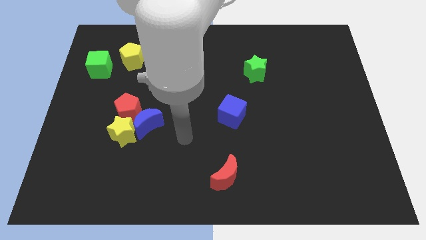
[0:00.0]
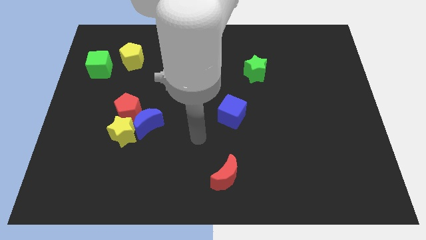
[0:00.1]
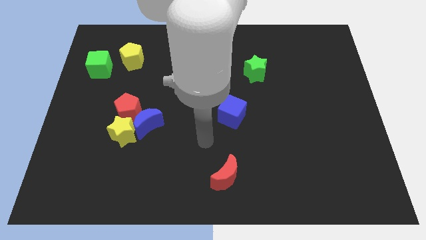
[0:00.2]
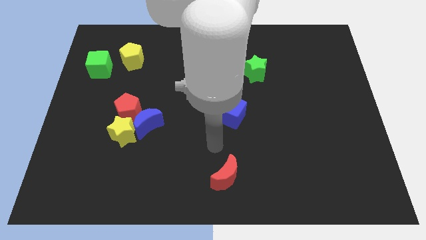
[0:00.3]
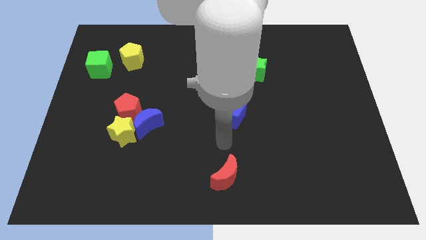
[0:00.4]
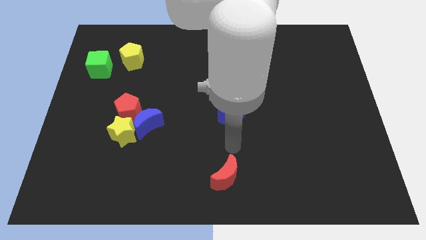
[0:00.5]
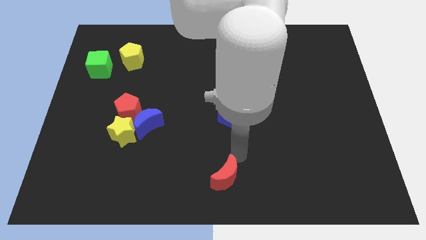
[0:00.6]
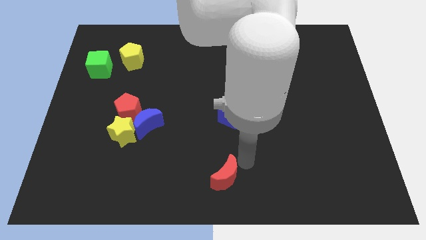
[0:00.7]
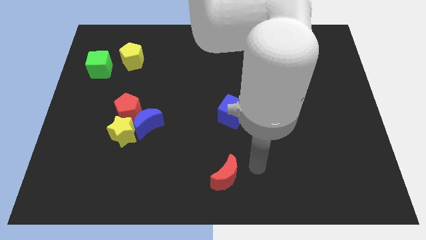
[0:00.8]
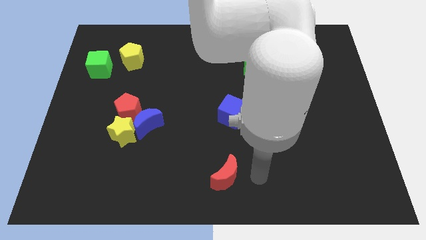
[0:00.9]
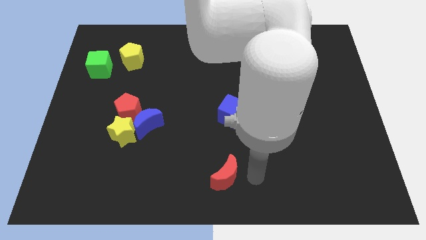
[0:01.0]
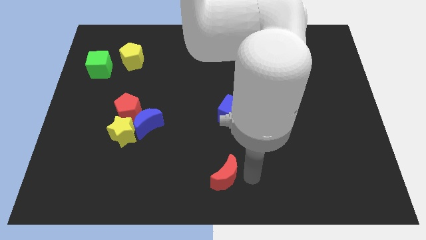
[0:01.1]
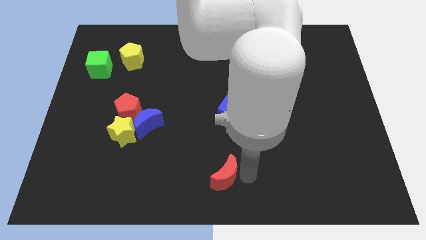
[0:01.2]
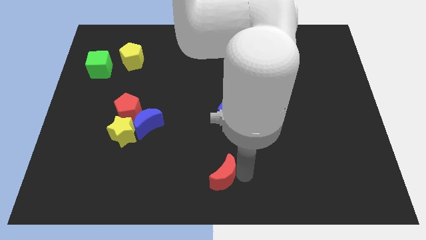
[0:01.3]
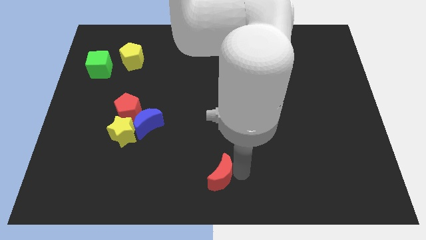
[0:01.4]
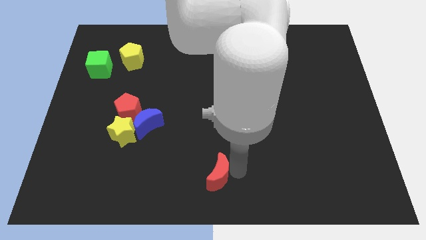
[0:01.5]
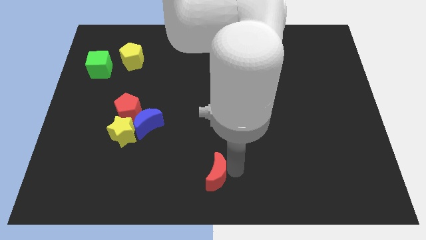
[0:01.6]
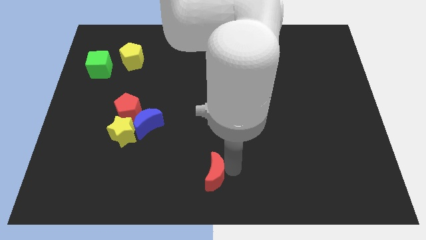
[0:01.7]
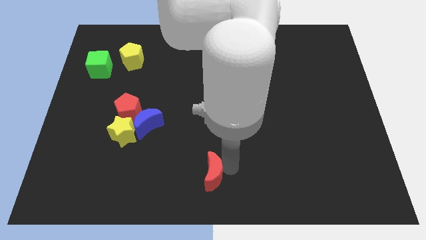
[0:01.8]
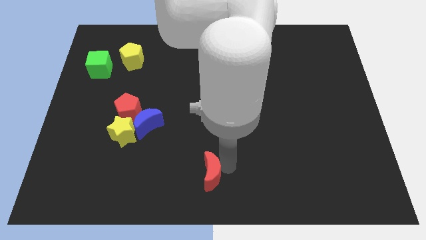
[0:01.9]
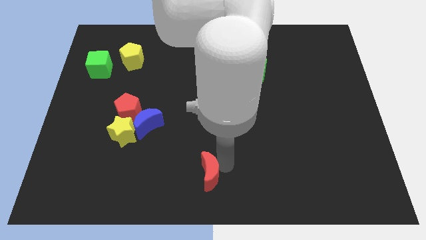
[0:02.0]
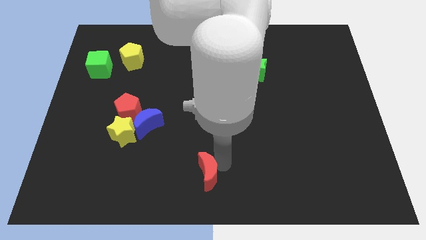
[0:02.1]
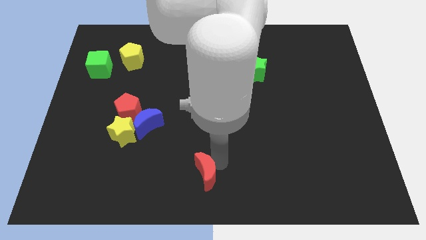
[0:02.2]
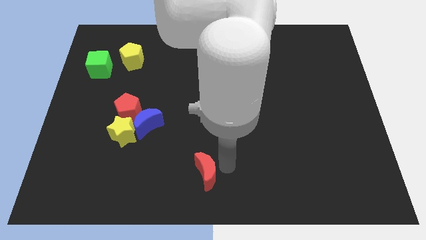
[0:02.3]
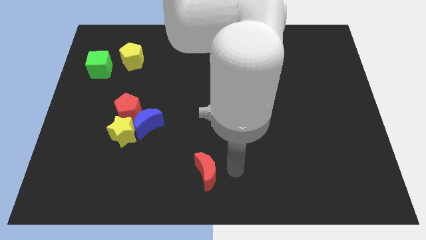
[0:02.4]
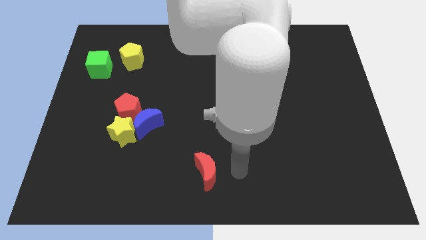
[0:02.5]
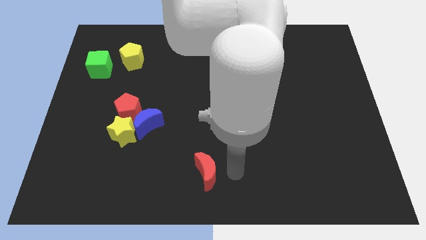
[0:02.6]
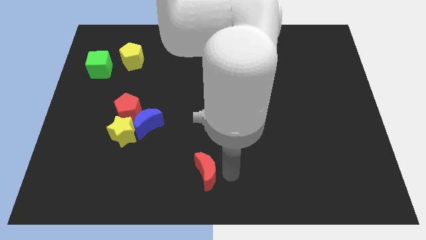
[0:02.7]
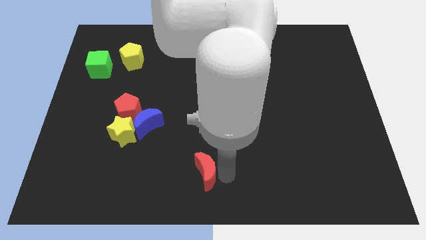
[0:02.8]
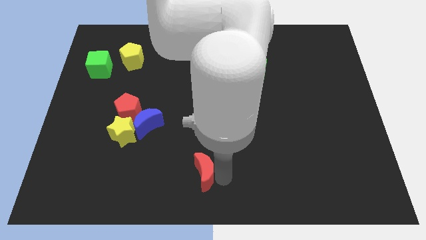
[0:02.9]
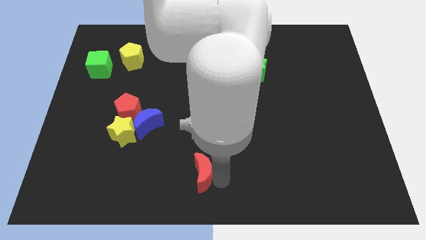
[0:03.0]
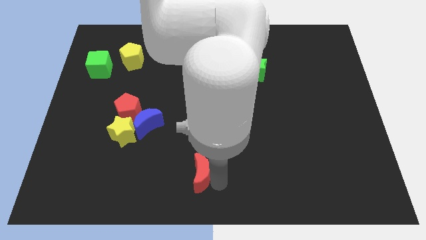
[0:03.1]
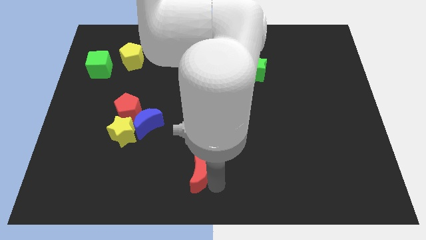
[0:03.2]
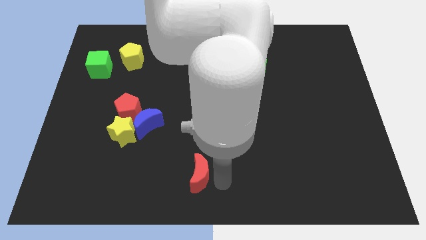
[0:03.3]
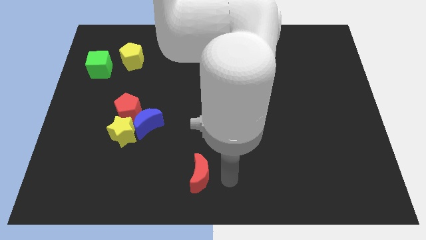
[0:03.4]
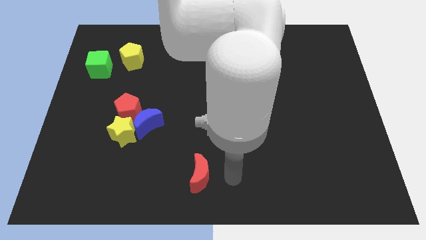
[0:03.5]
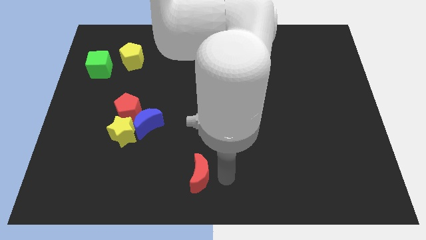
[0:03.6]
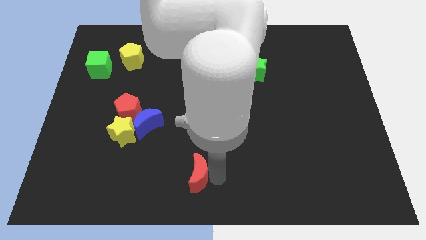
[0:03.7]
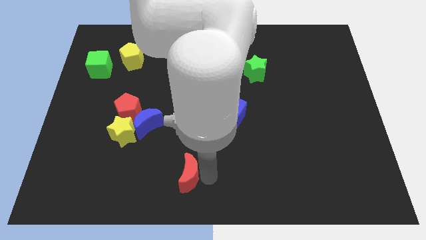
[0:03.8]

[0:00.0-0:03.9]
push the red moon a bit to the left

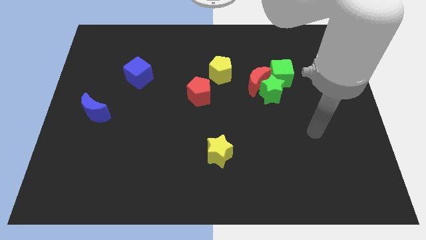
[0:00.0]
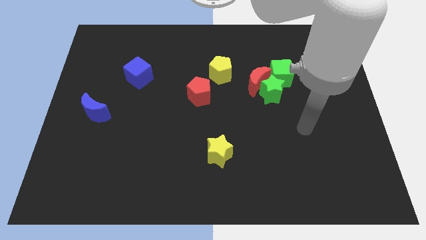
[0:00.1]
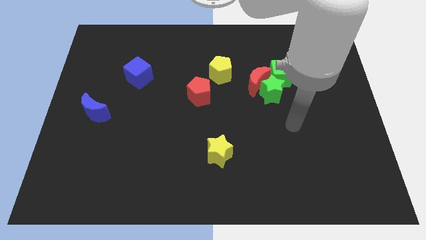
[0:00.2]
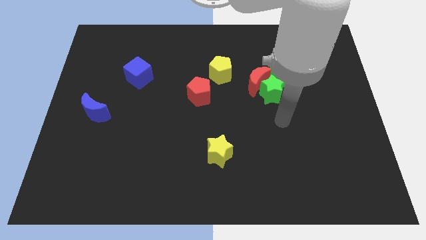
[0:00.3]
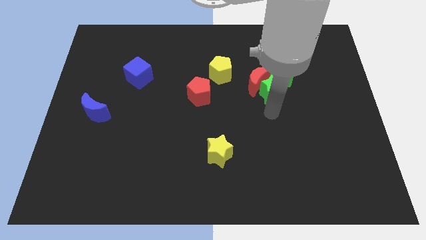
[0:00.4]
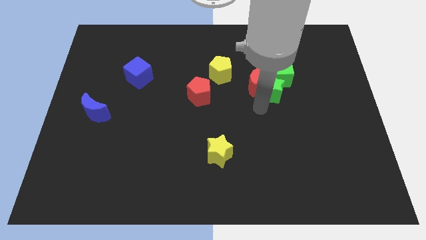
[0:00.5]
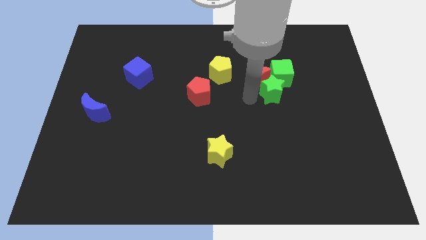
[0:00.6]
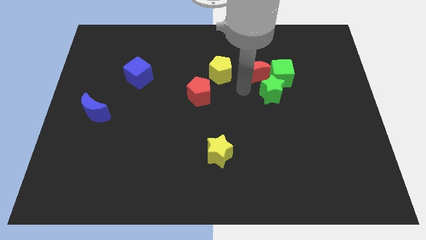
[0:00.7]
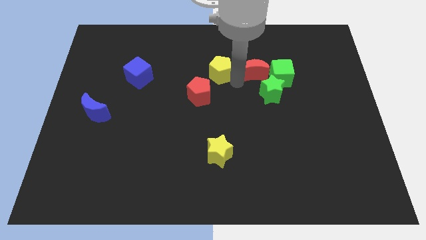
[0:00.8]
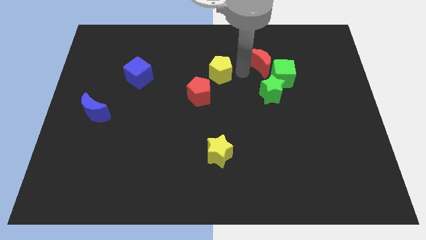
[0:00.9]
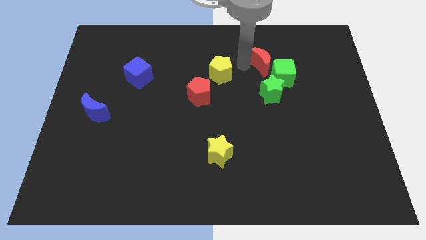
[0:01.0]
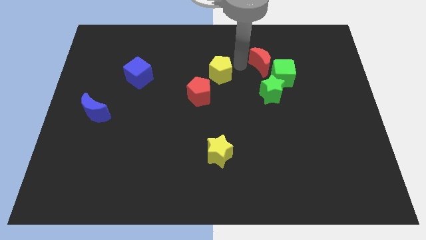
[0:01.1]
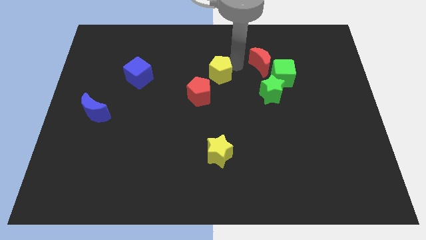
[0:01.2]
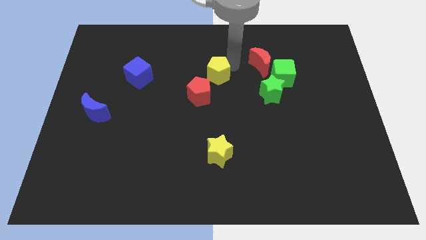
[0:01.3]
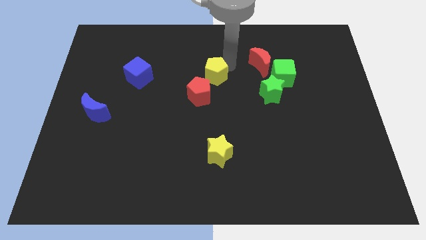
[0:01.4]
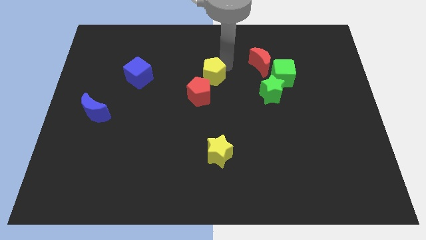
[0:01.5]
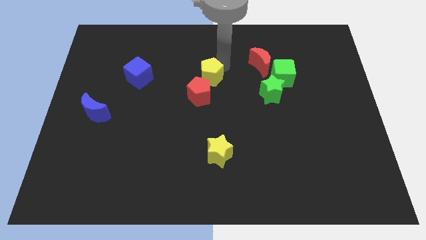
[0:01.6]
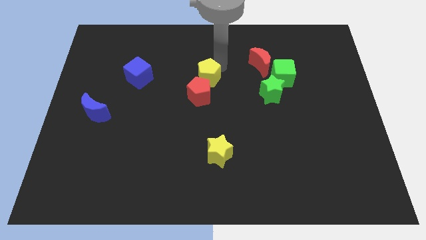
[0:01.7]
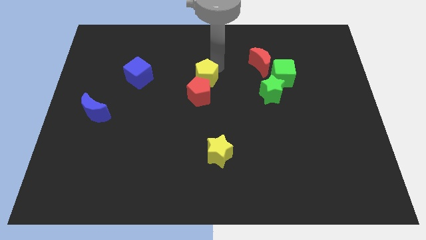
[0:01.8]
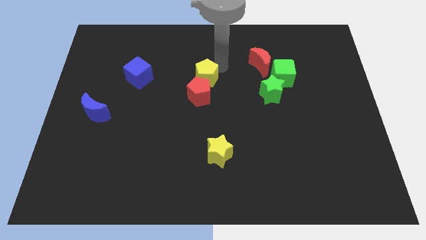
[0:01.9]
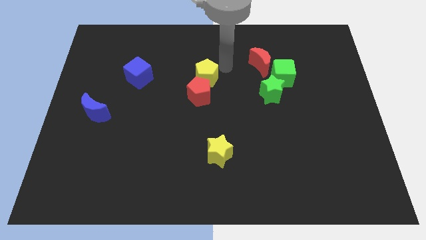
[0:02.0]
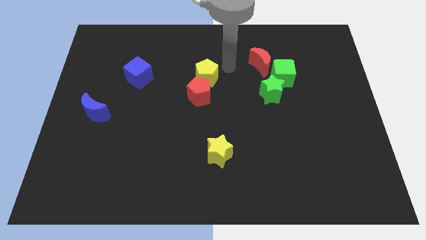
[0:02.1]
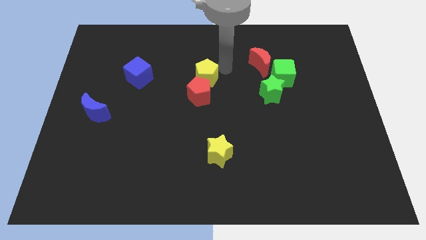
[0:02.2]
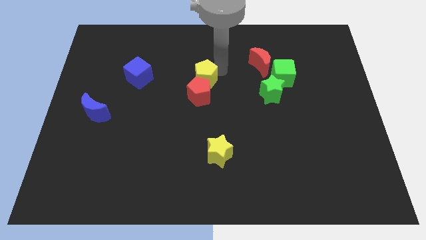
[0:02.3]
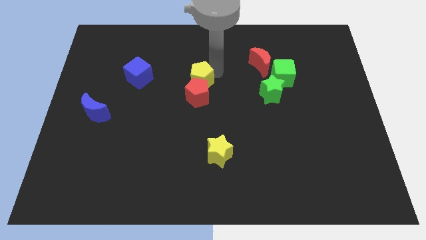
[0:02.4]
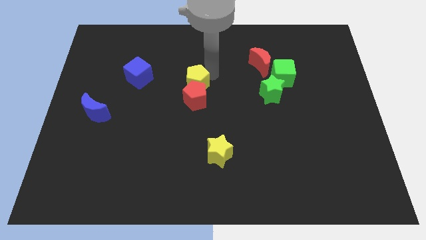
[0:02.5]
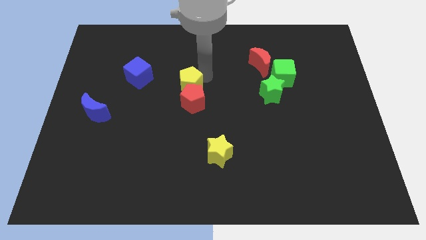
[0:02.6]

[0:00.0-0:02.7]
slightly move the yellow pentagon downwards and left diagonally

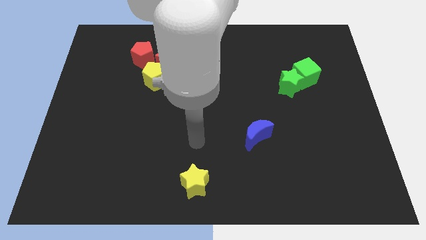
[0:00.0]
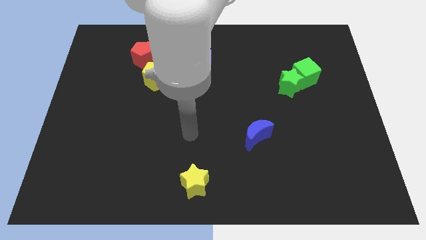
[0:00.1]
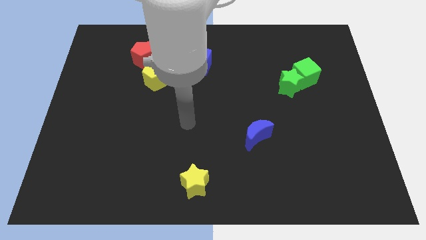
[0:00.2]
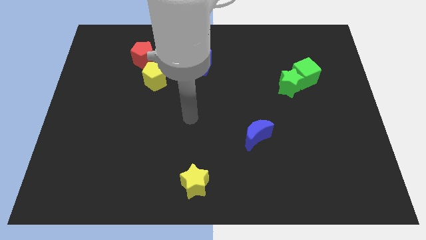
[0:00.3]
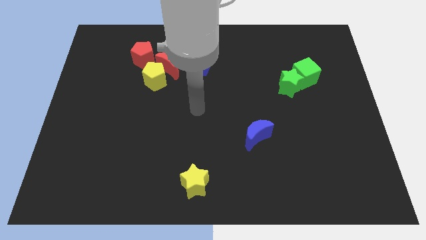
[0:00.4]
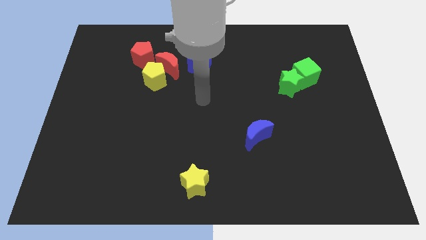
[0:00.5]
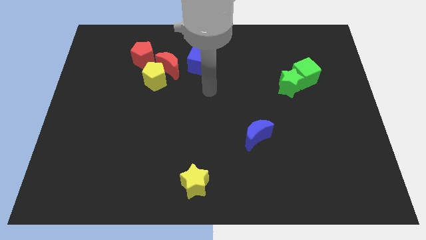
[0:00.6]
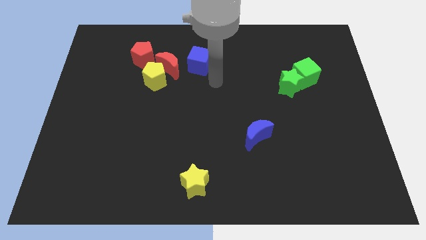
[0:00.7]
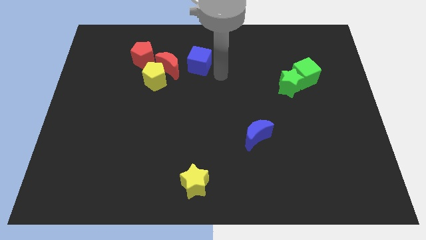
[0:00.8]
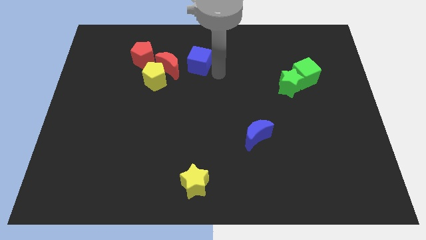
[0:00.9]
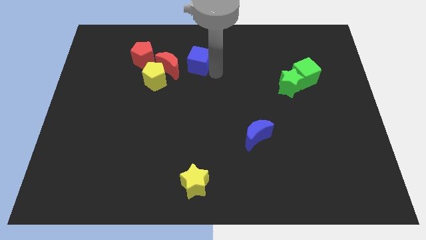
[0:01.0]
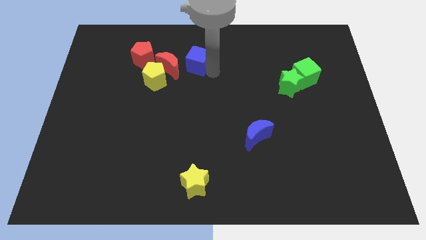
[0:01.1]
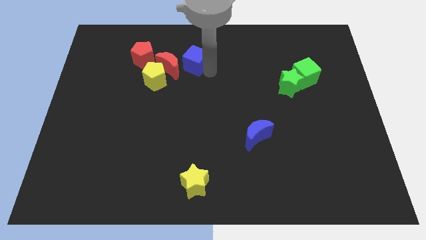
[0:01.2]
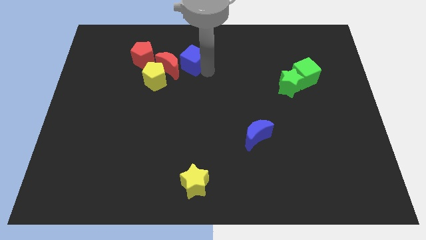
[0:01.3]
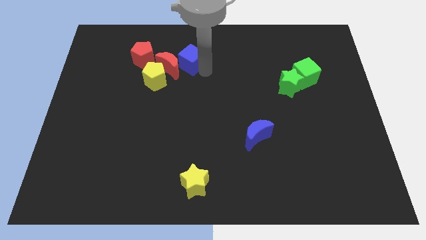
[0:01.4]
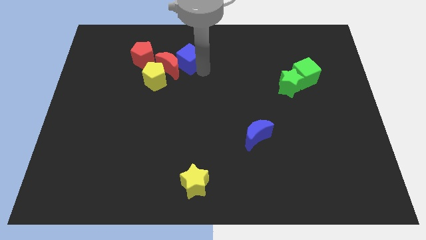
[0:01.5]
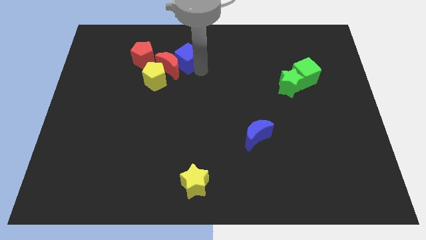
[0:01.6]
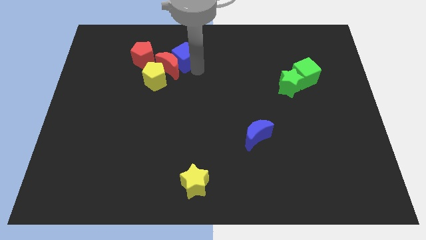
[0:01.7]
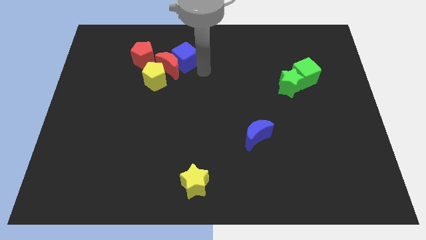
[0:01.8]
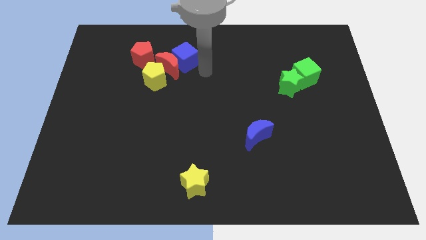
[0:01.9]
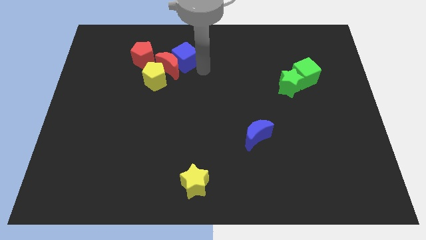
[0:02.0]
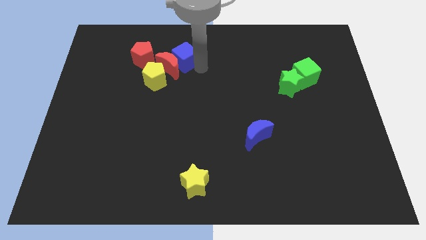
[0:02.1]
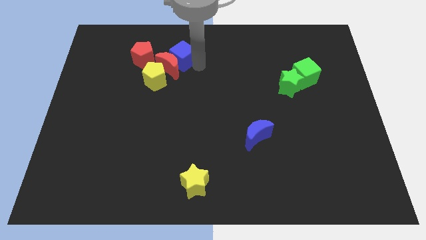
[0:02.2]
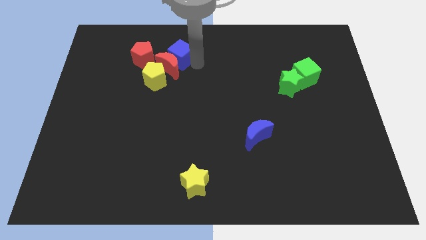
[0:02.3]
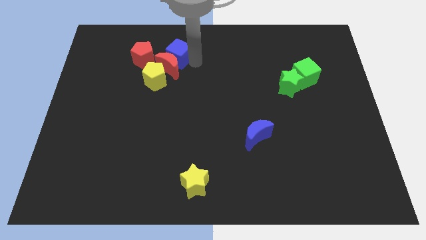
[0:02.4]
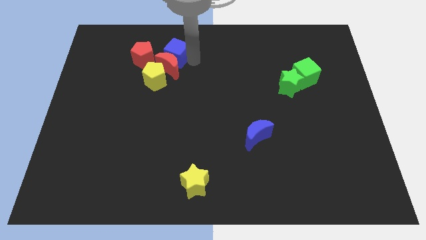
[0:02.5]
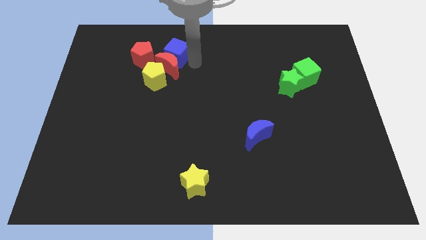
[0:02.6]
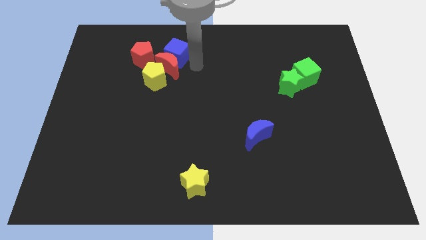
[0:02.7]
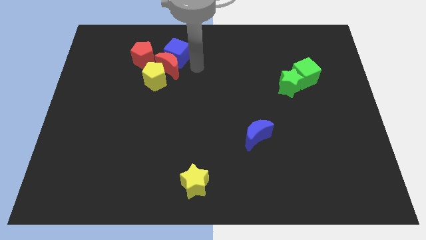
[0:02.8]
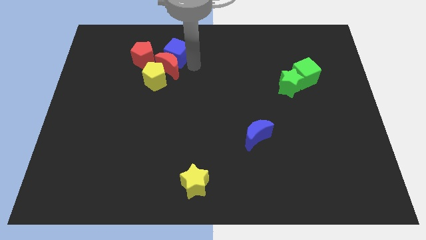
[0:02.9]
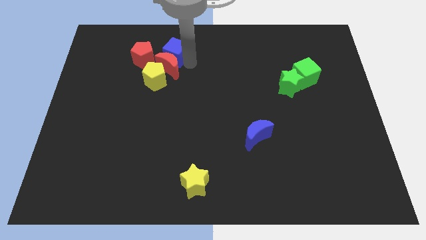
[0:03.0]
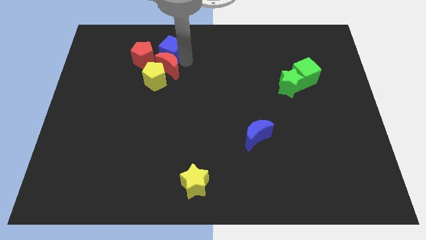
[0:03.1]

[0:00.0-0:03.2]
slightly move the blue cube left
